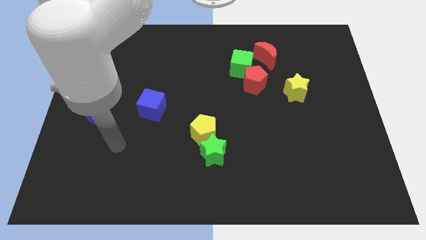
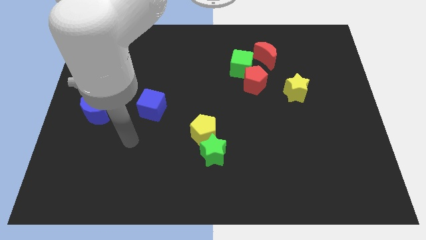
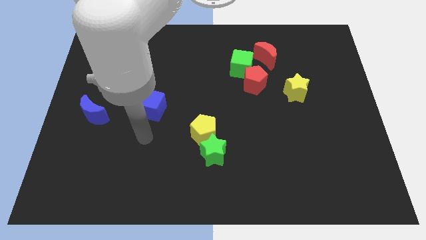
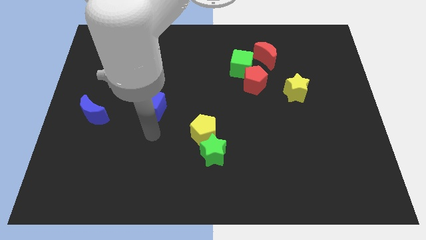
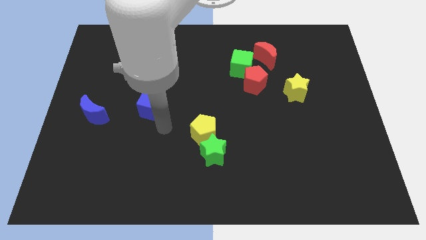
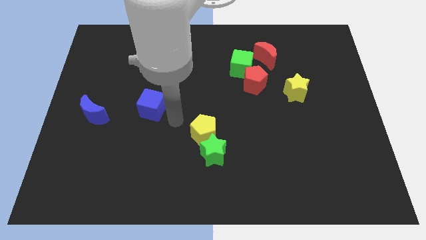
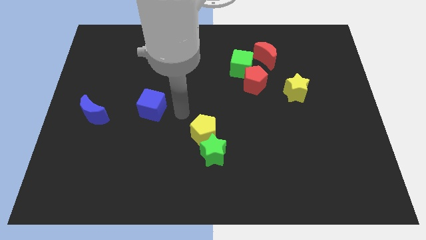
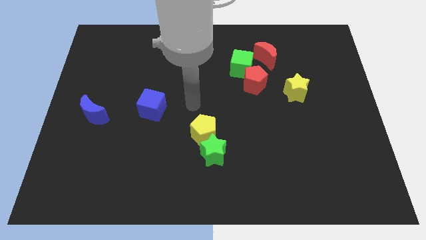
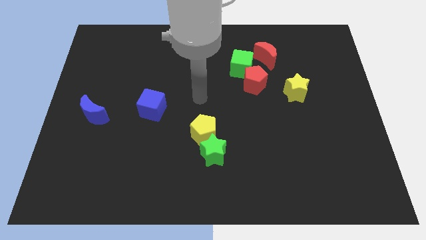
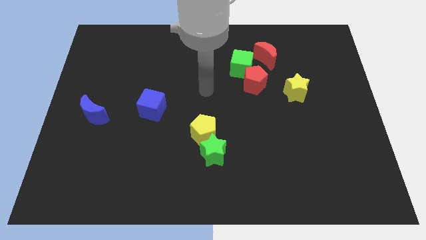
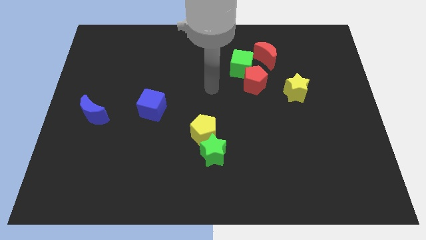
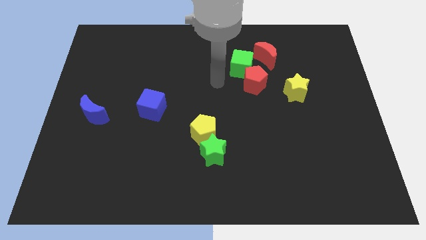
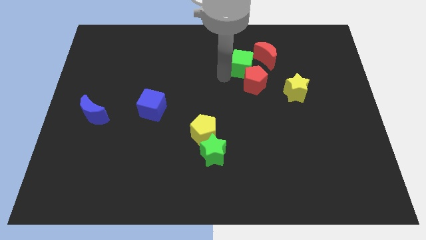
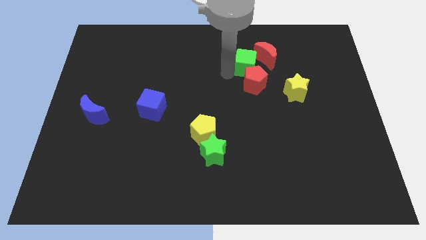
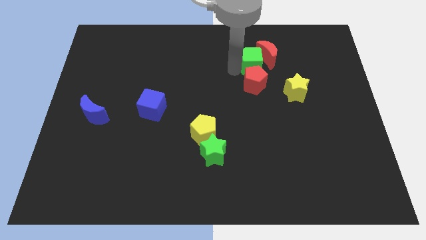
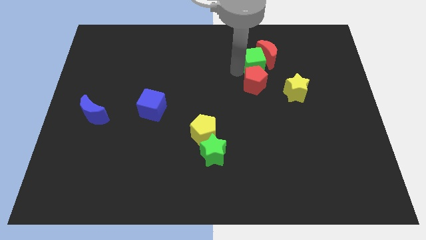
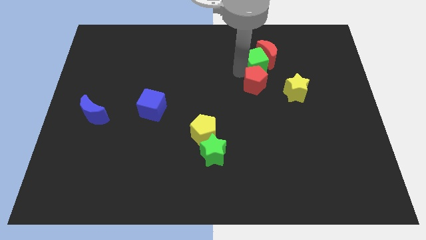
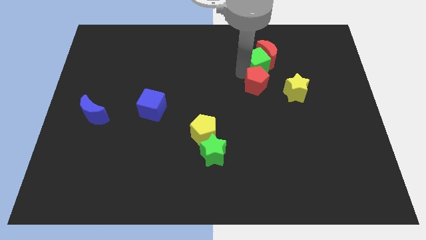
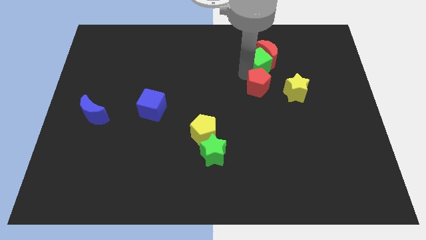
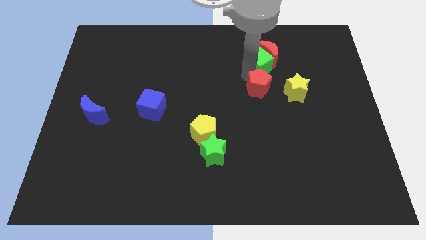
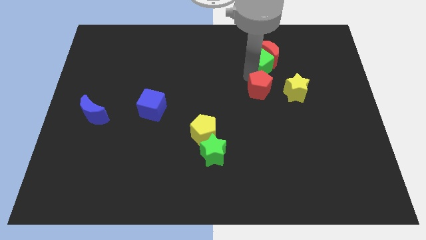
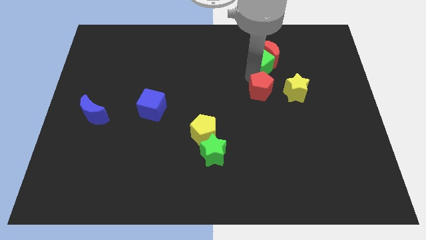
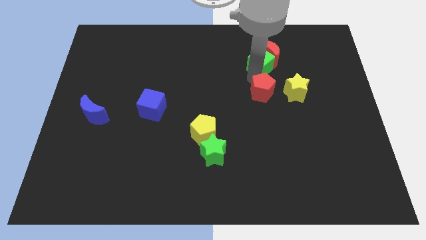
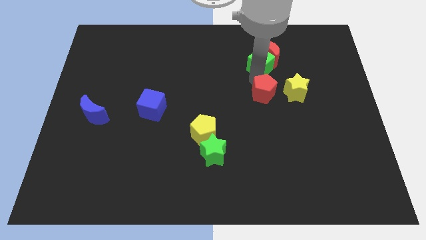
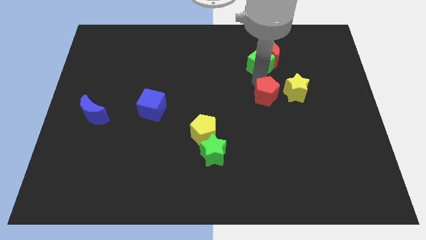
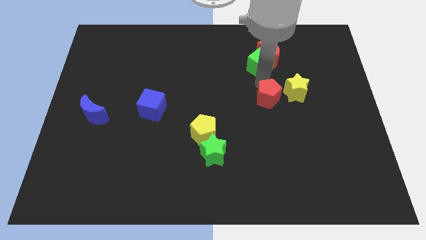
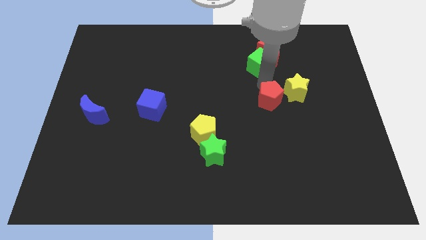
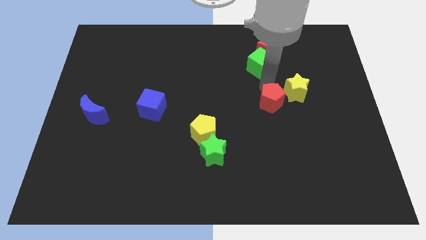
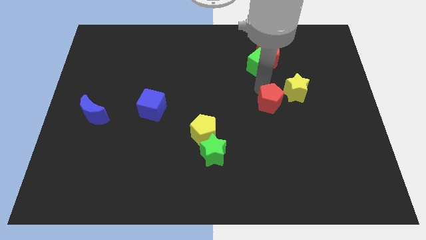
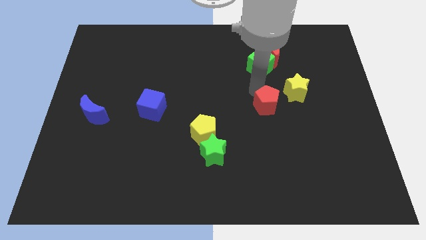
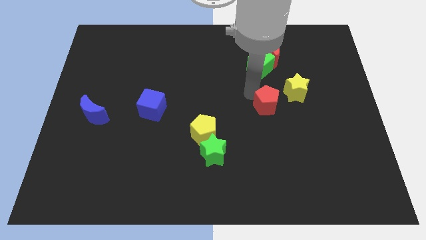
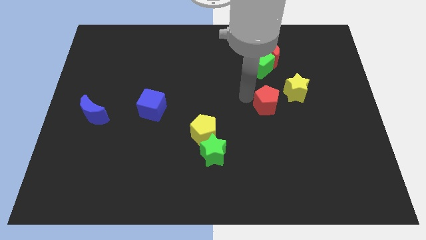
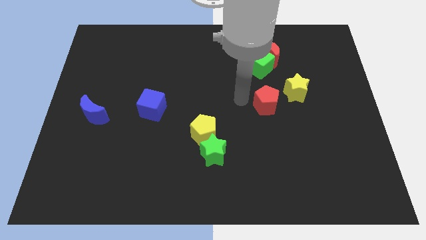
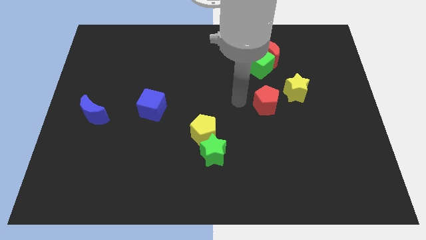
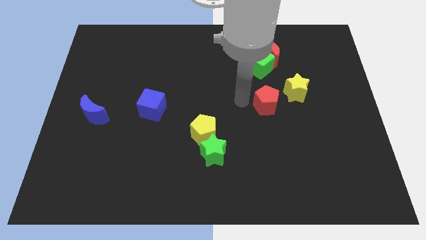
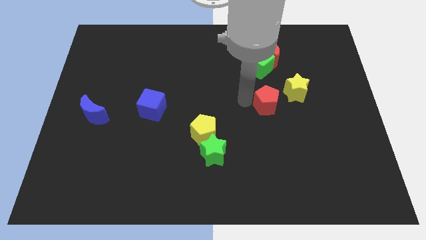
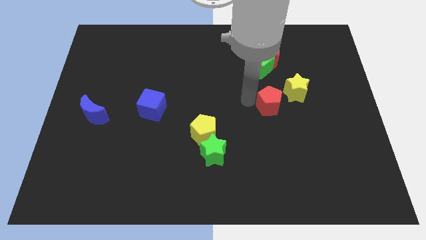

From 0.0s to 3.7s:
push the red pentagon a little down and to the right

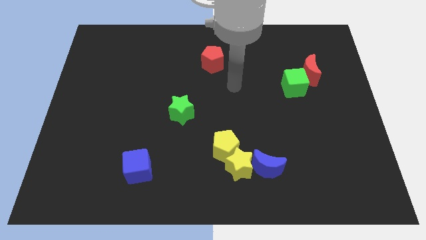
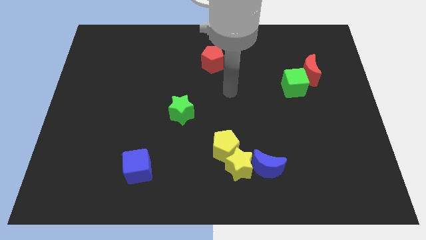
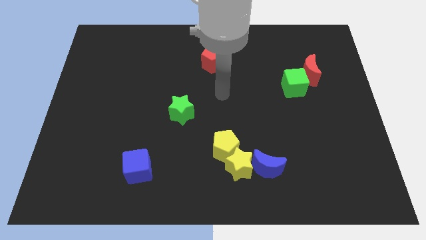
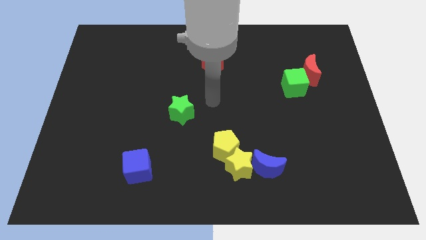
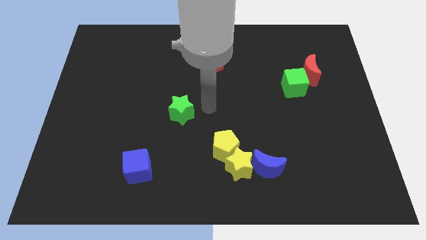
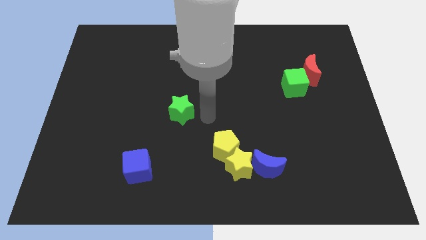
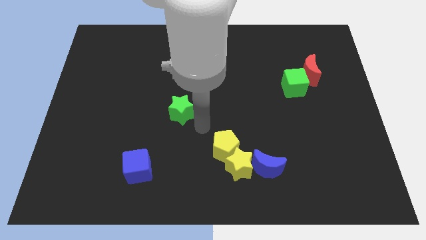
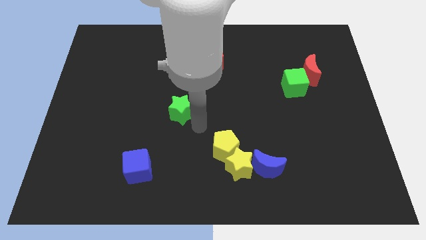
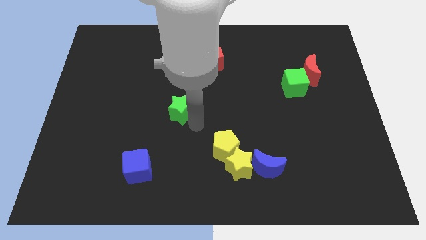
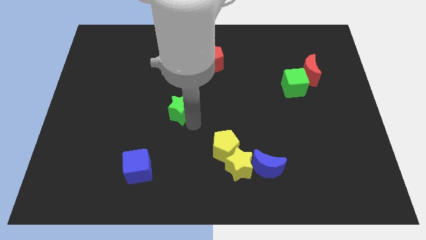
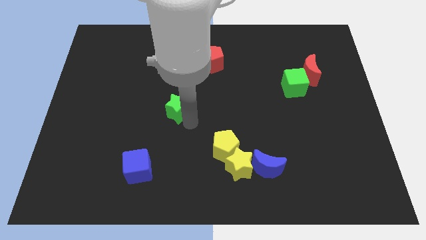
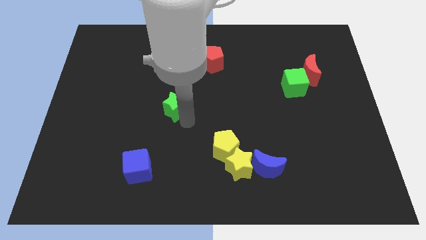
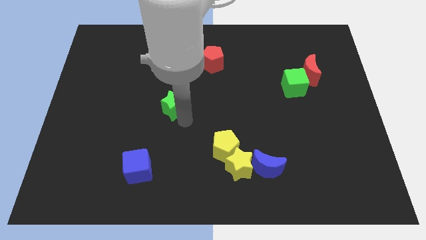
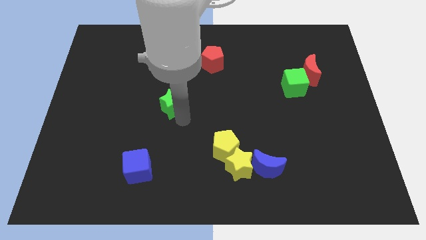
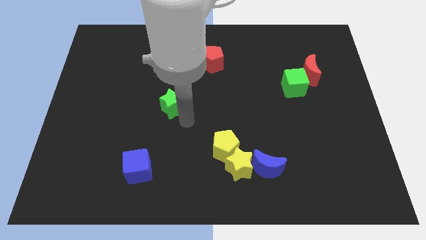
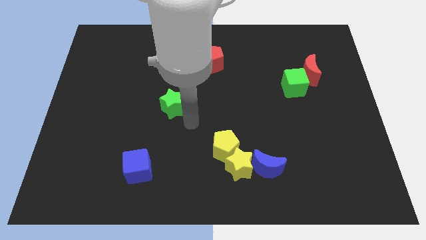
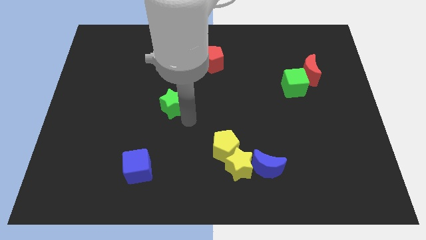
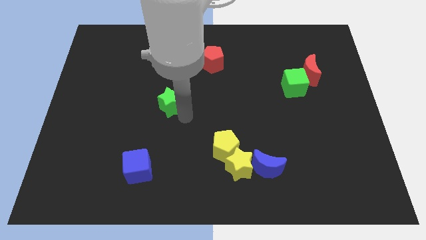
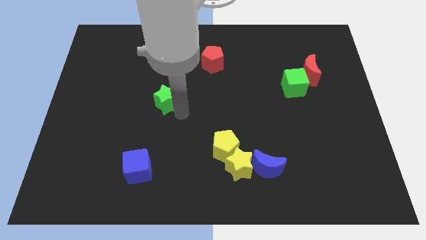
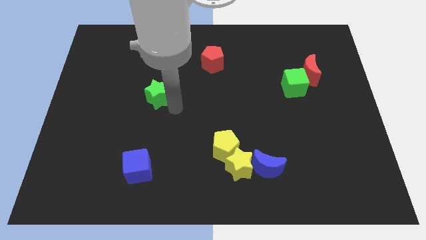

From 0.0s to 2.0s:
push the green star up and left diagonally somewhat

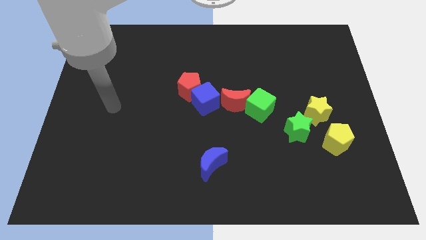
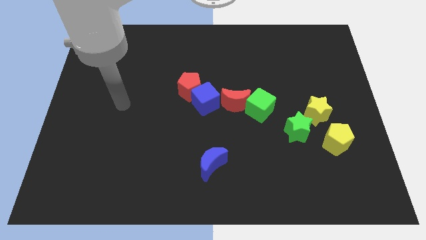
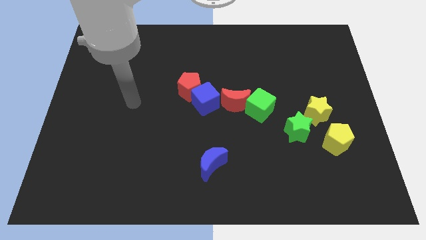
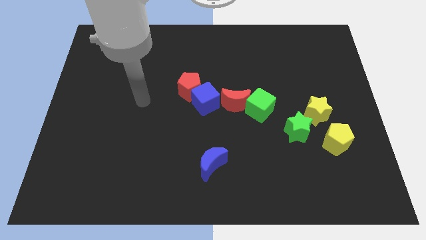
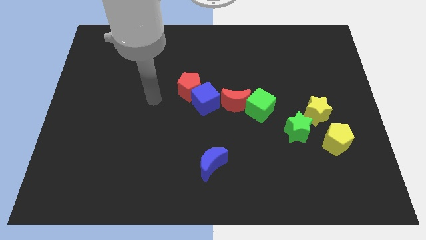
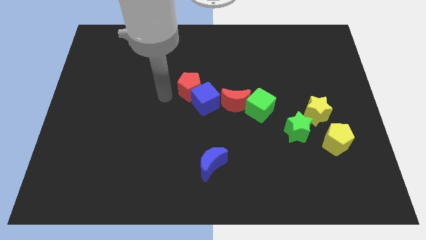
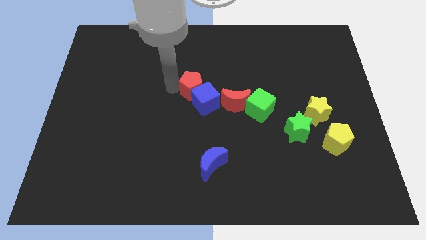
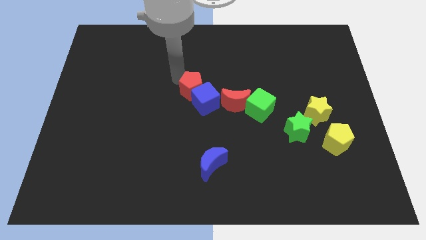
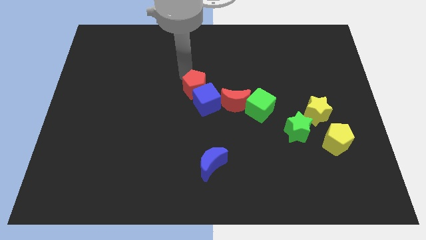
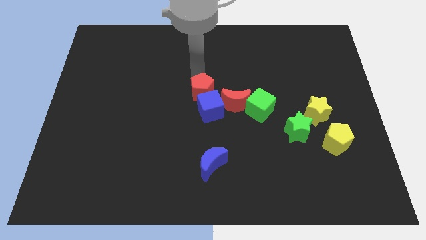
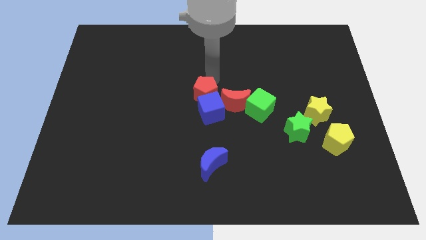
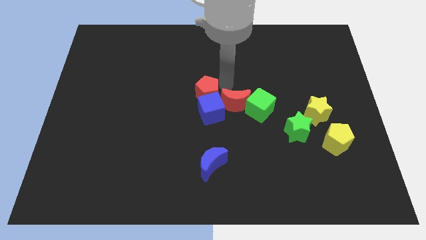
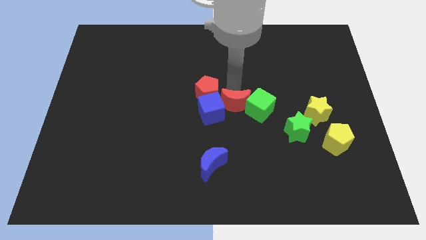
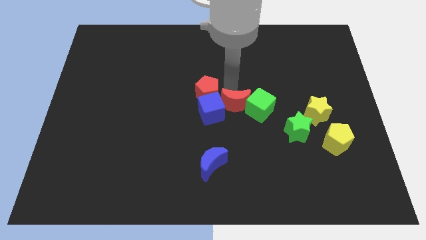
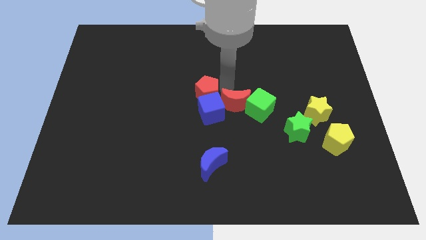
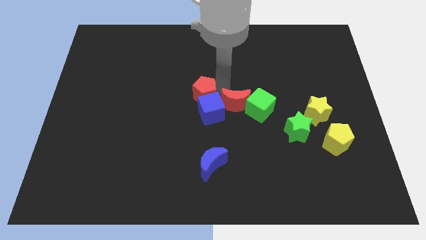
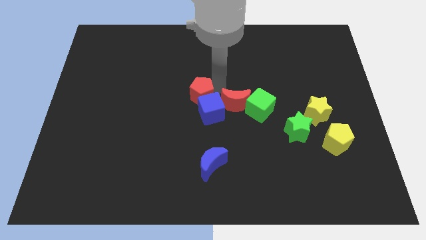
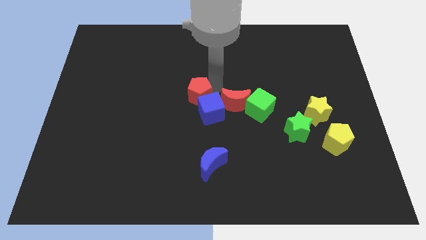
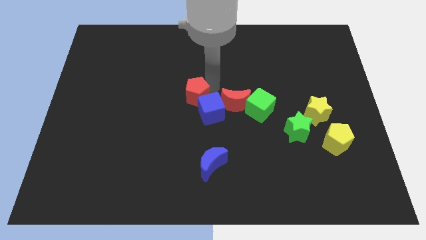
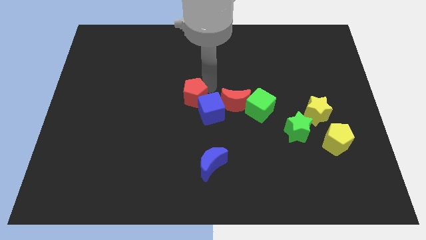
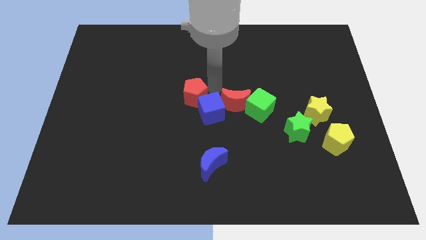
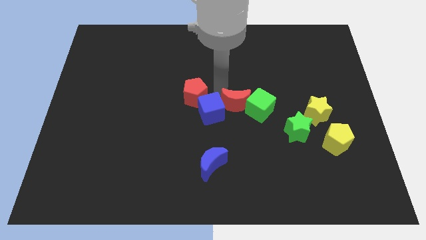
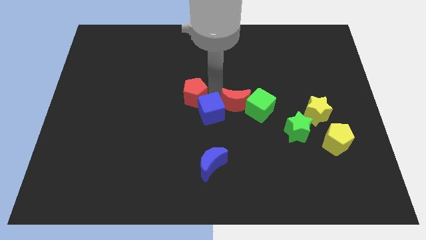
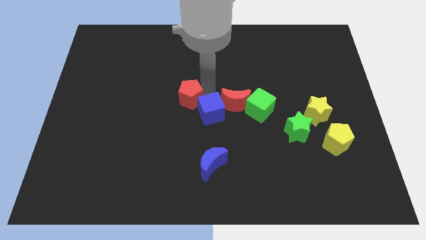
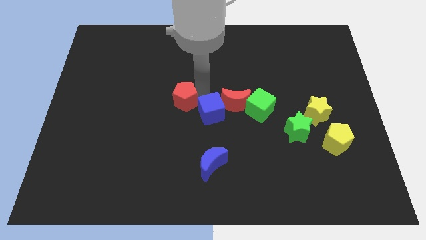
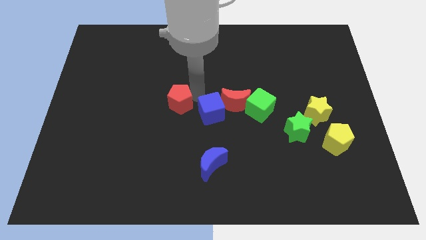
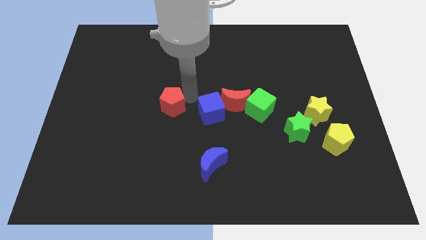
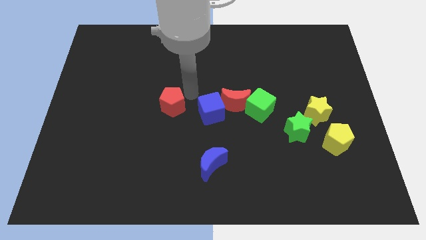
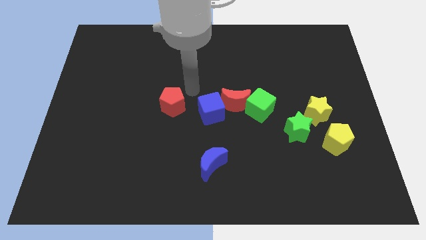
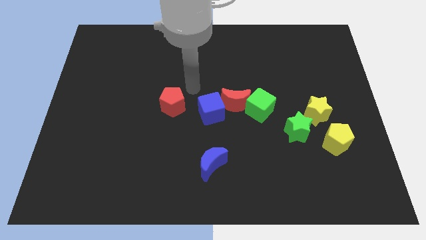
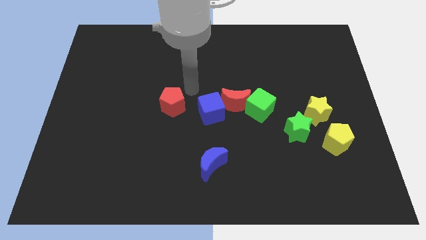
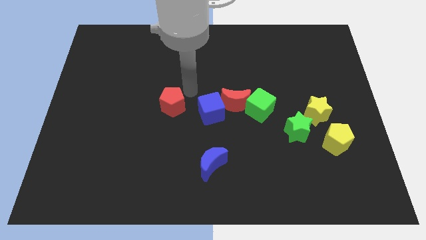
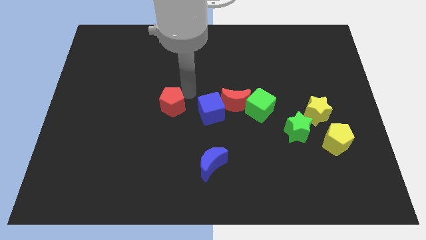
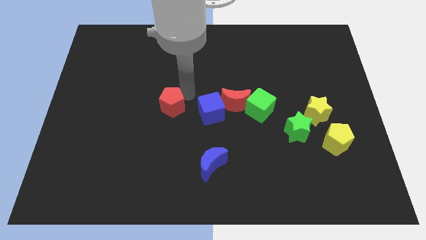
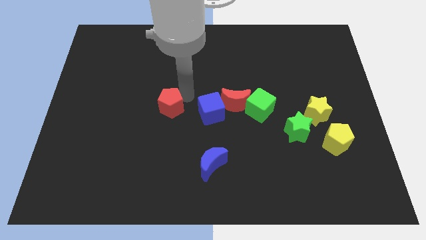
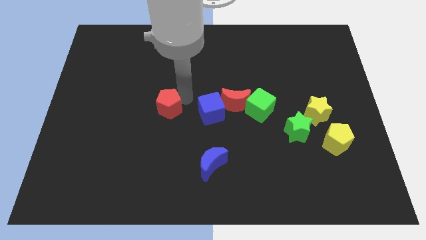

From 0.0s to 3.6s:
push the red pentagon diagonally downwards and to the left a bit
